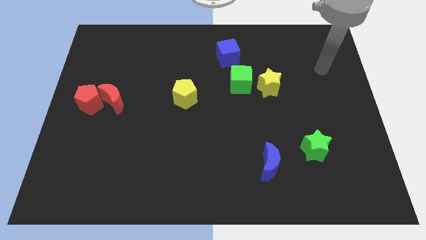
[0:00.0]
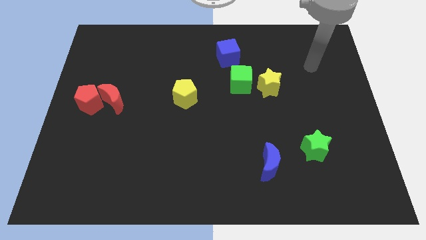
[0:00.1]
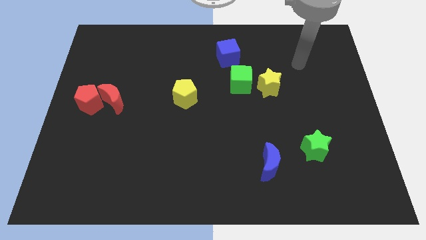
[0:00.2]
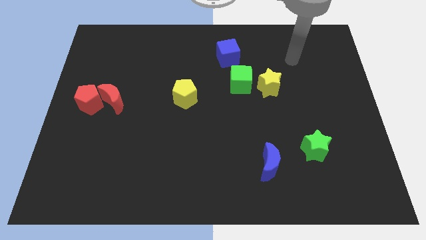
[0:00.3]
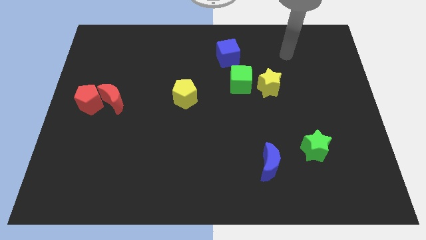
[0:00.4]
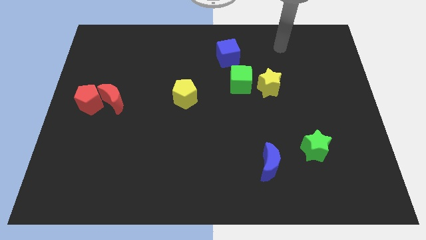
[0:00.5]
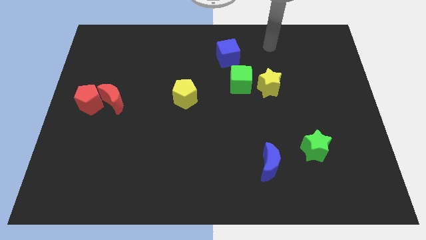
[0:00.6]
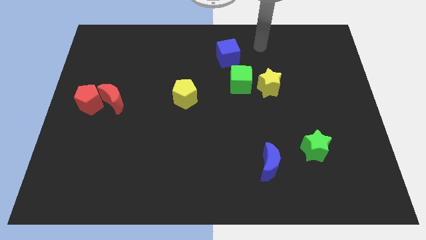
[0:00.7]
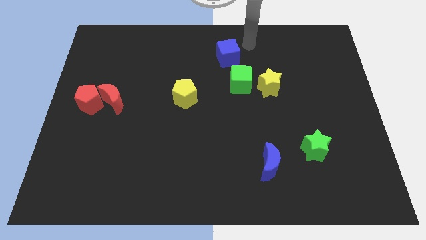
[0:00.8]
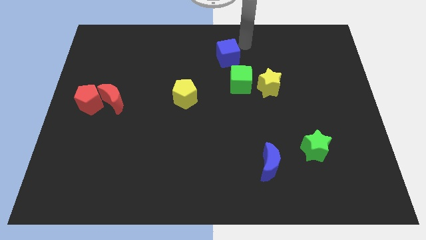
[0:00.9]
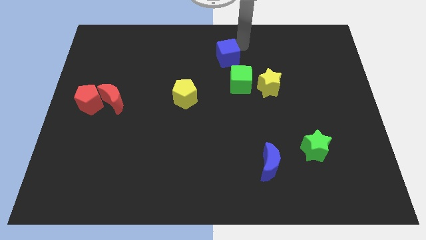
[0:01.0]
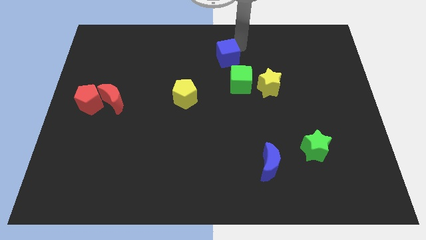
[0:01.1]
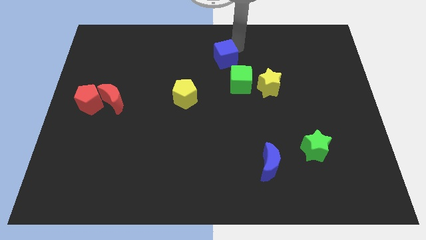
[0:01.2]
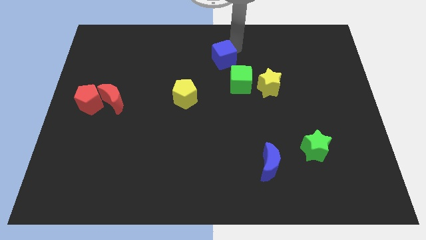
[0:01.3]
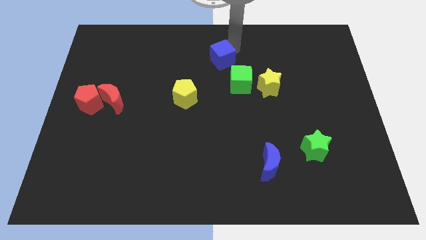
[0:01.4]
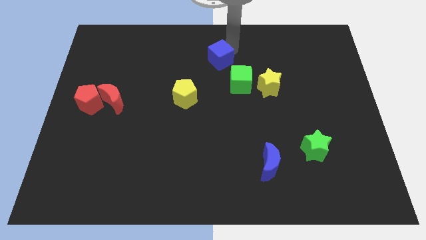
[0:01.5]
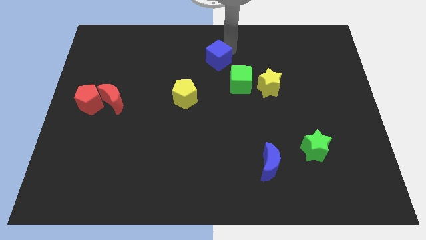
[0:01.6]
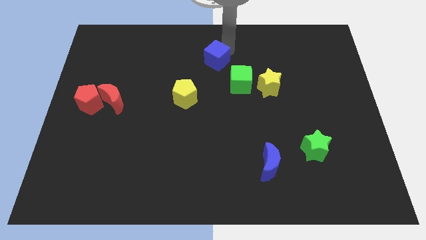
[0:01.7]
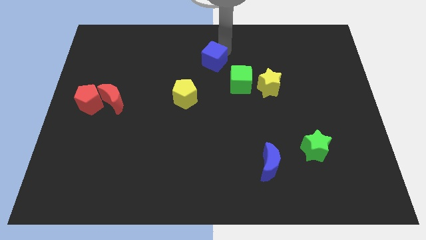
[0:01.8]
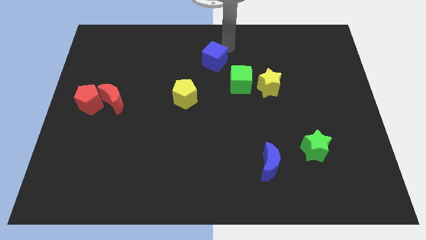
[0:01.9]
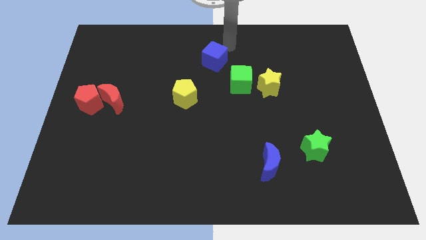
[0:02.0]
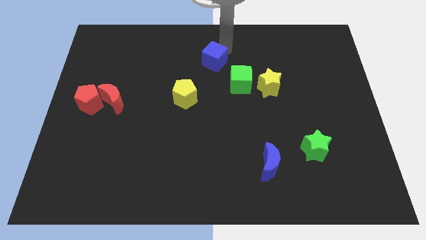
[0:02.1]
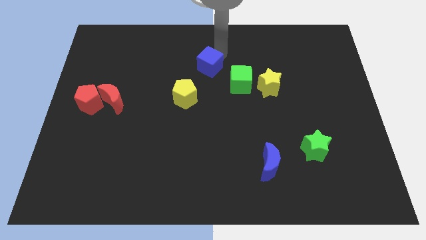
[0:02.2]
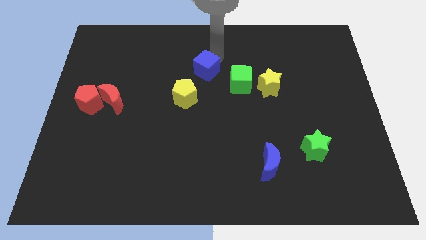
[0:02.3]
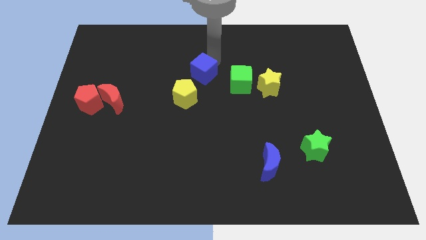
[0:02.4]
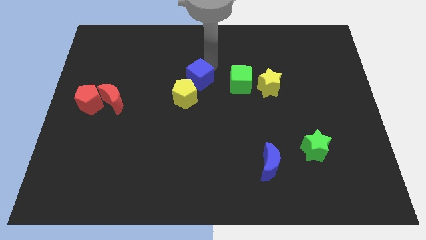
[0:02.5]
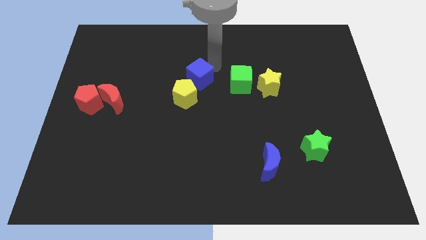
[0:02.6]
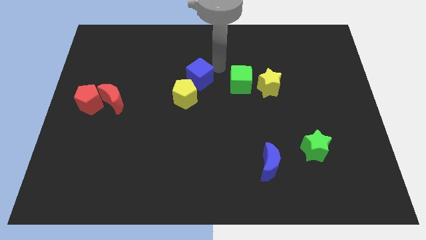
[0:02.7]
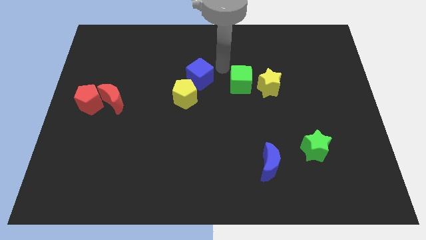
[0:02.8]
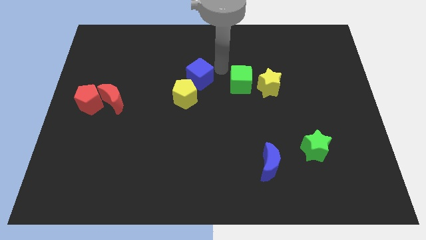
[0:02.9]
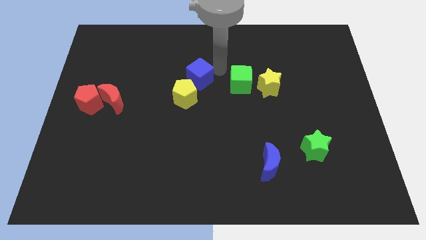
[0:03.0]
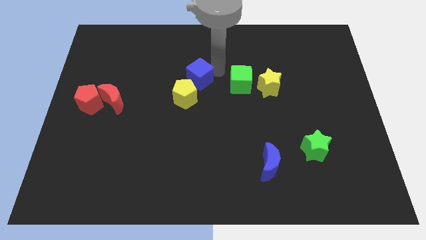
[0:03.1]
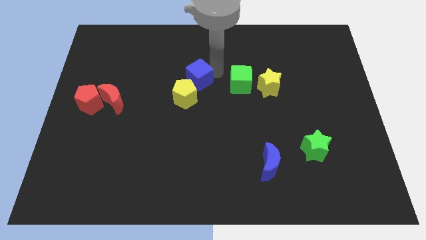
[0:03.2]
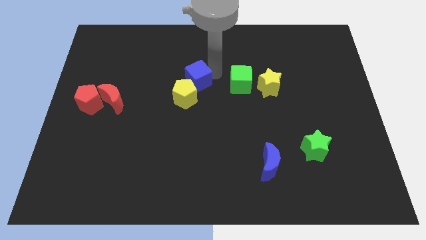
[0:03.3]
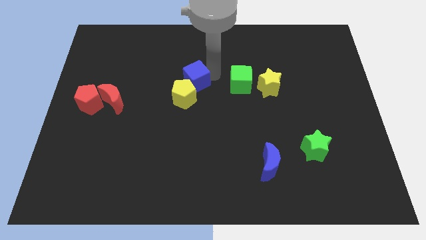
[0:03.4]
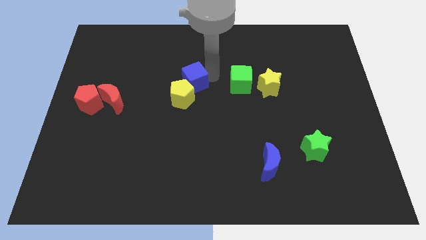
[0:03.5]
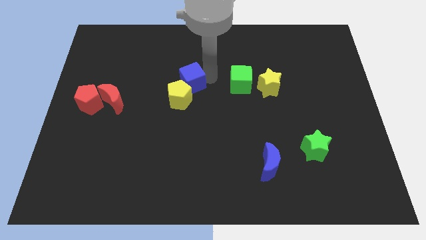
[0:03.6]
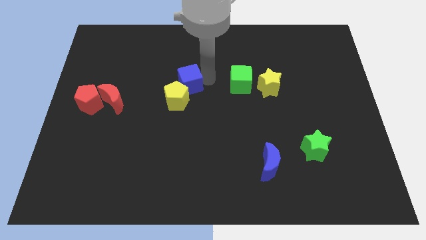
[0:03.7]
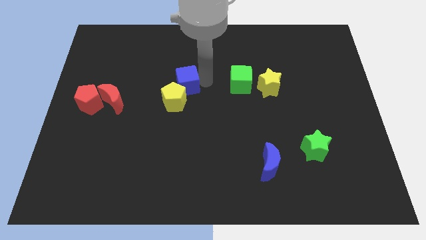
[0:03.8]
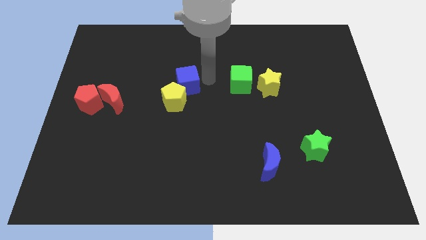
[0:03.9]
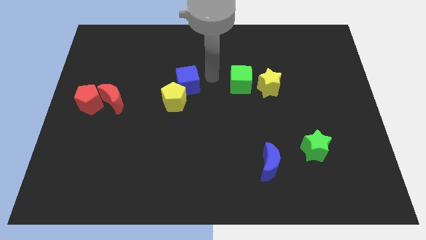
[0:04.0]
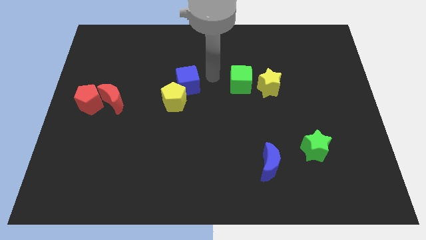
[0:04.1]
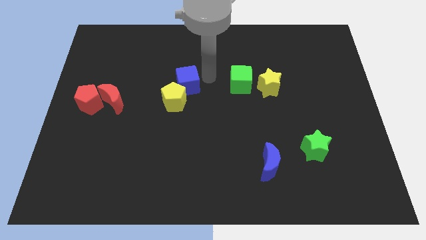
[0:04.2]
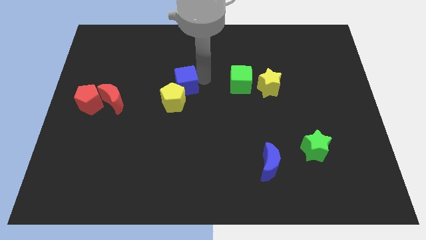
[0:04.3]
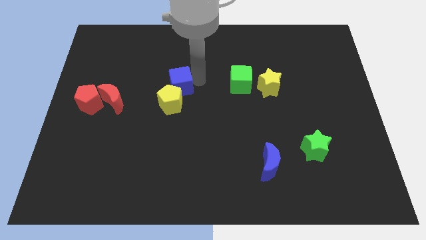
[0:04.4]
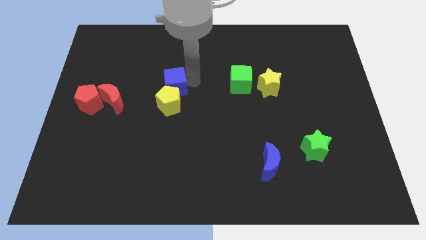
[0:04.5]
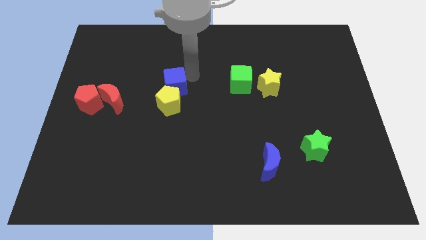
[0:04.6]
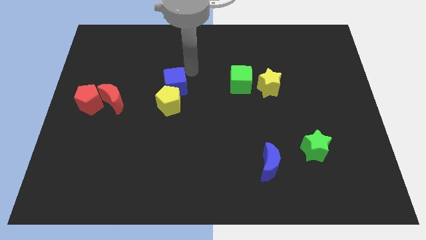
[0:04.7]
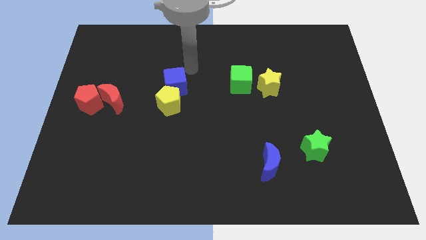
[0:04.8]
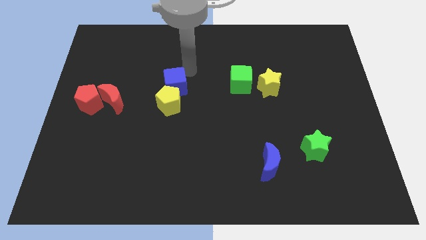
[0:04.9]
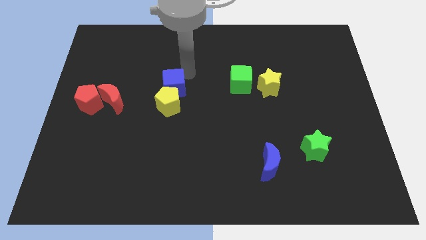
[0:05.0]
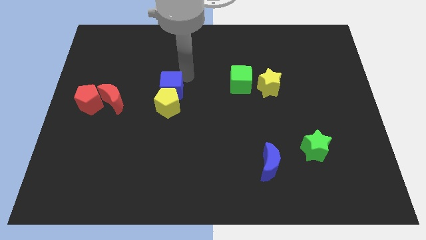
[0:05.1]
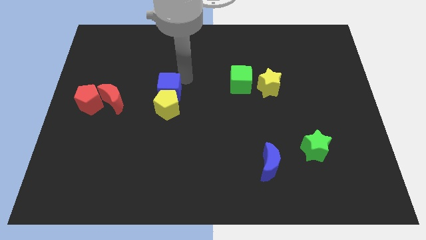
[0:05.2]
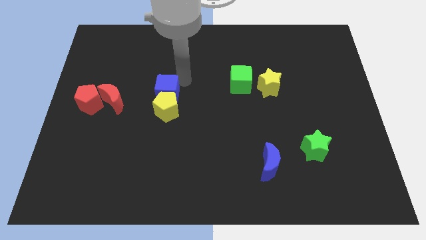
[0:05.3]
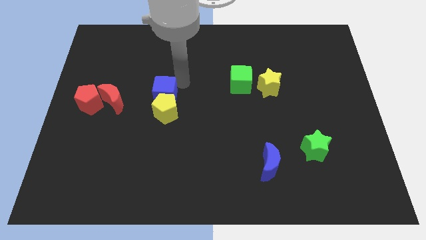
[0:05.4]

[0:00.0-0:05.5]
move the blue cube downwards and to the left diagonally

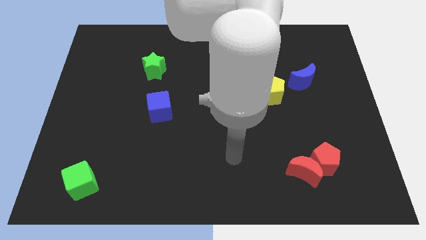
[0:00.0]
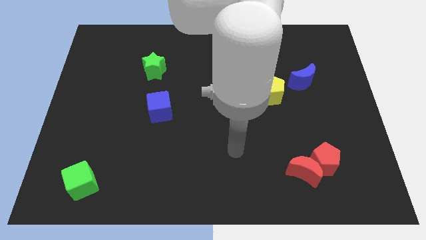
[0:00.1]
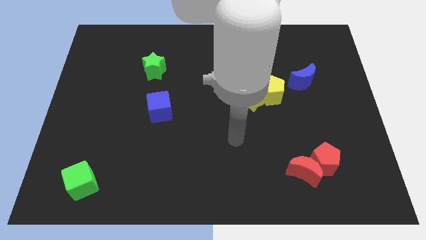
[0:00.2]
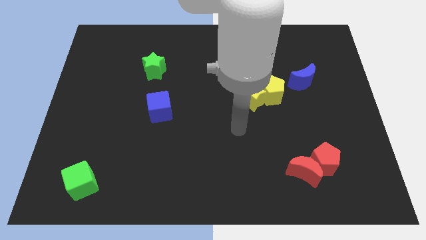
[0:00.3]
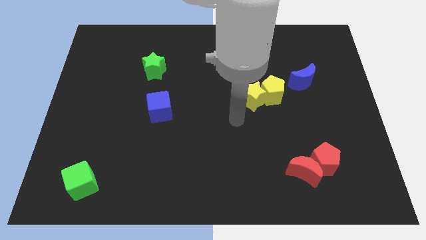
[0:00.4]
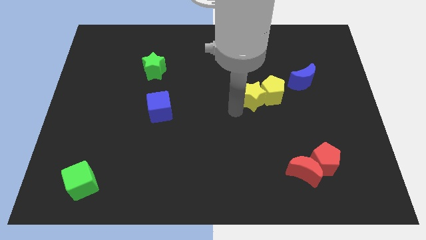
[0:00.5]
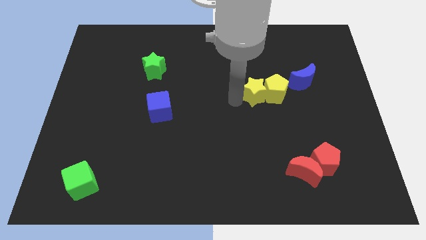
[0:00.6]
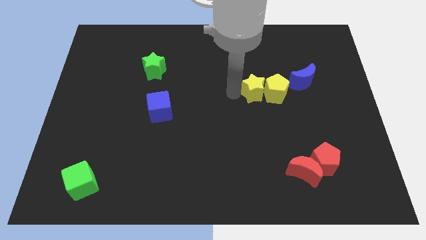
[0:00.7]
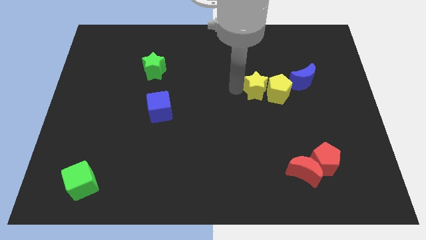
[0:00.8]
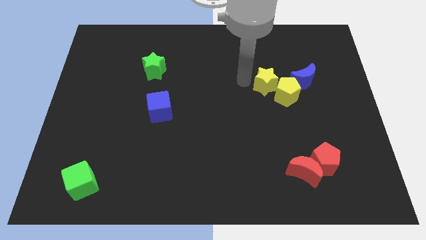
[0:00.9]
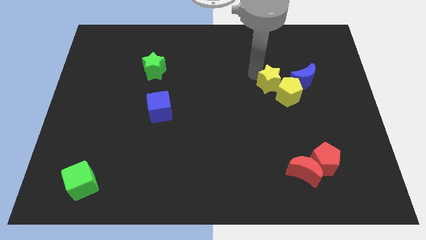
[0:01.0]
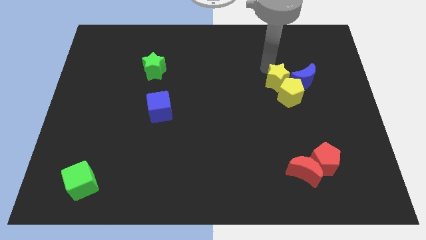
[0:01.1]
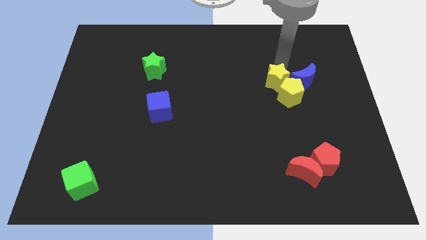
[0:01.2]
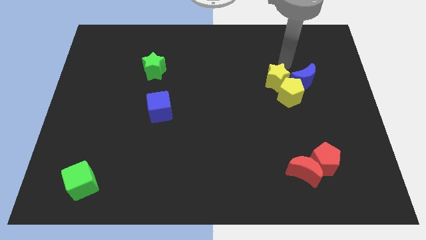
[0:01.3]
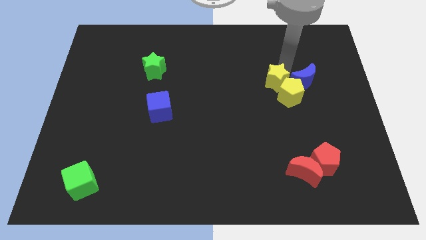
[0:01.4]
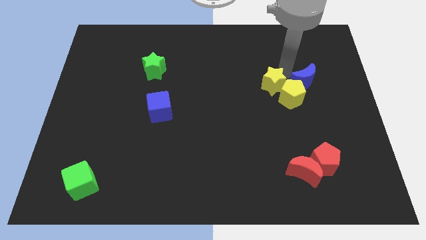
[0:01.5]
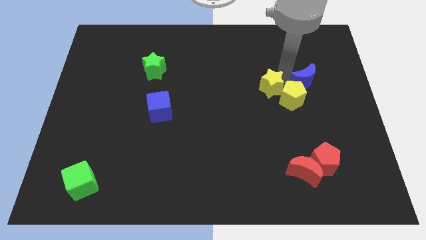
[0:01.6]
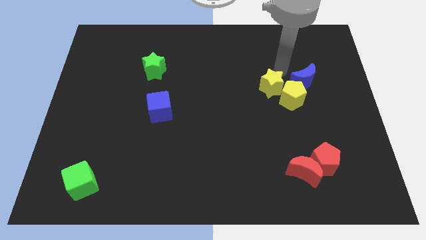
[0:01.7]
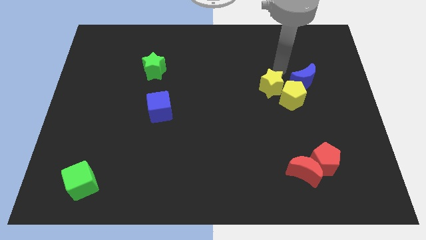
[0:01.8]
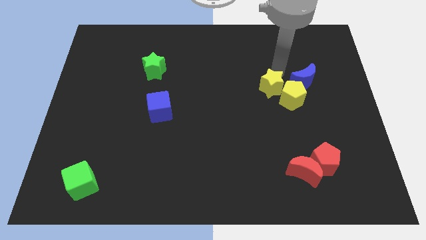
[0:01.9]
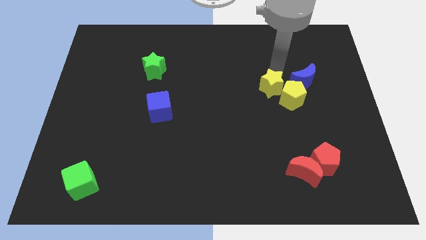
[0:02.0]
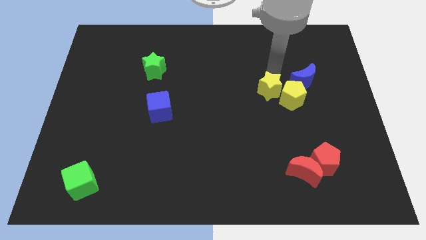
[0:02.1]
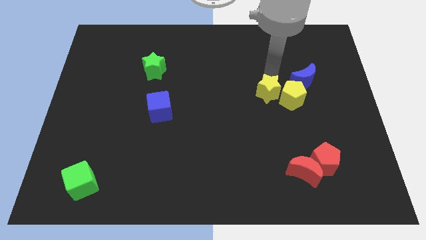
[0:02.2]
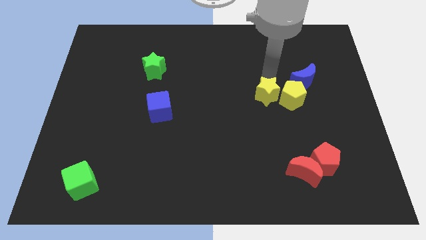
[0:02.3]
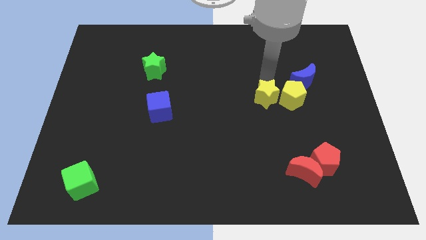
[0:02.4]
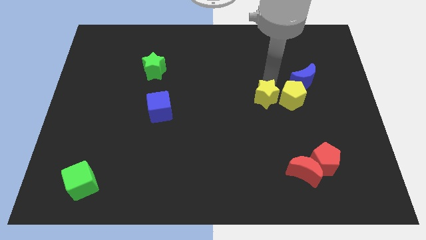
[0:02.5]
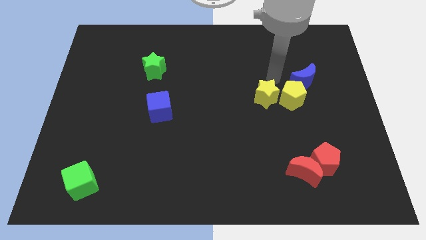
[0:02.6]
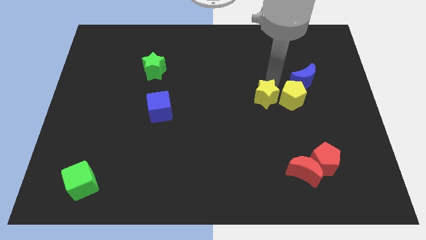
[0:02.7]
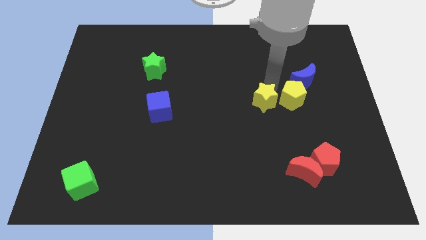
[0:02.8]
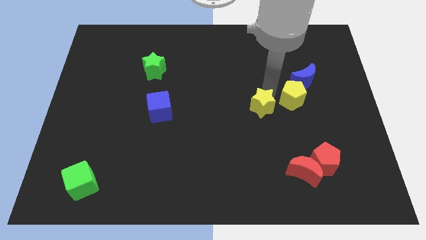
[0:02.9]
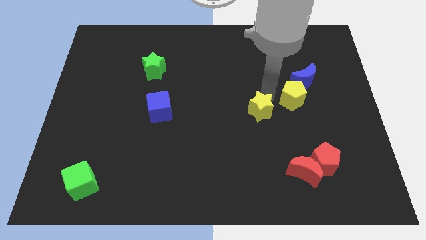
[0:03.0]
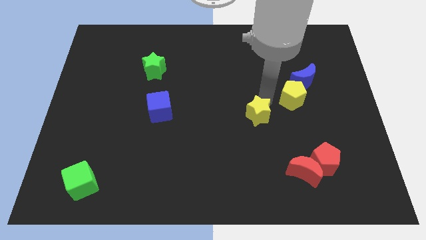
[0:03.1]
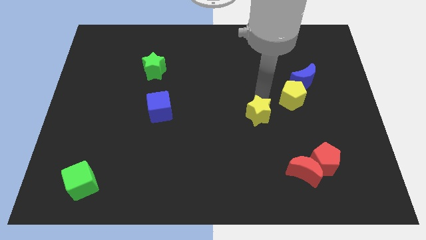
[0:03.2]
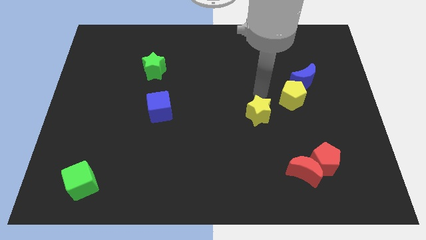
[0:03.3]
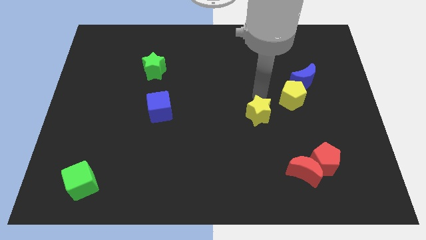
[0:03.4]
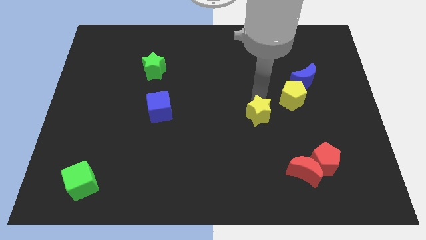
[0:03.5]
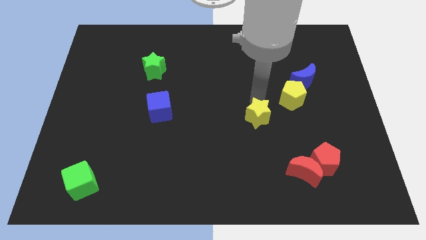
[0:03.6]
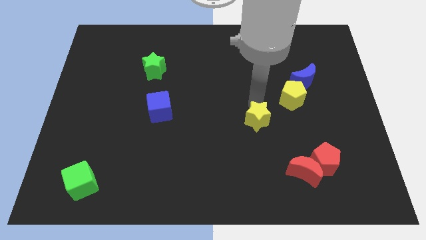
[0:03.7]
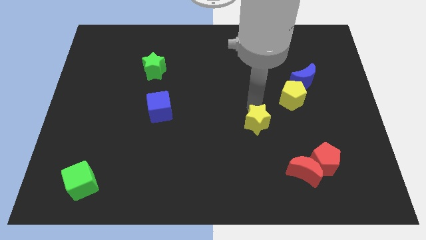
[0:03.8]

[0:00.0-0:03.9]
slide the yellow star a little downwards
